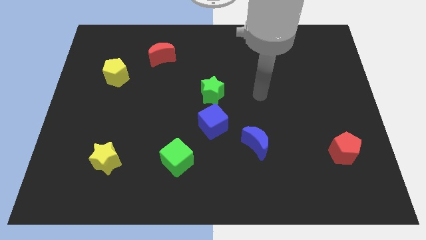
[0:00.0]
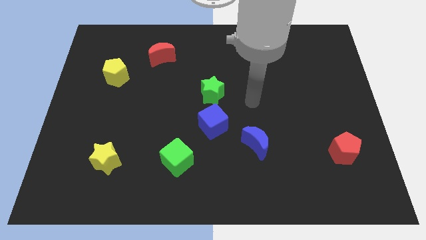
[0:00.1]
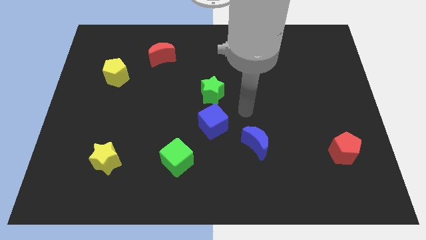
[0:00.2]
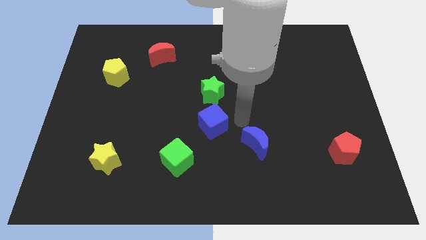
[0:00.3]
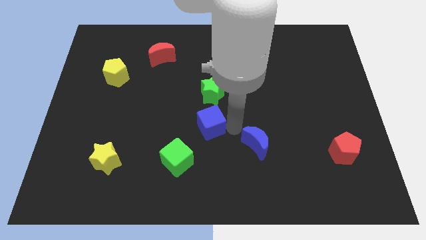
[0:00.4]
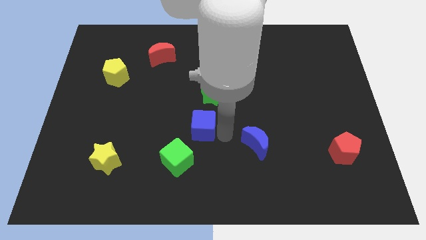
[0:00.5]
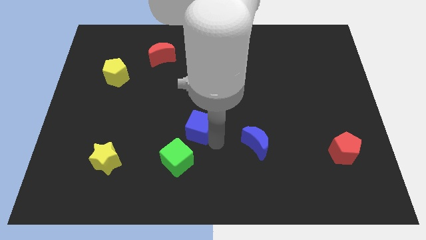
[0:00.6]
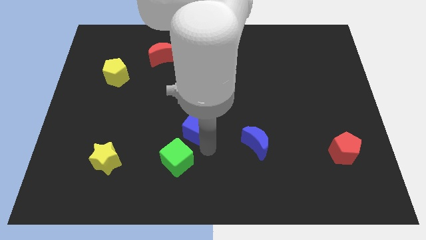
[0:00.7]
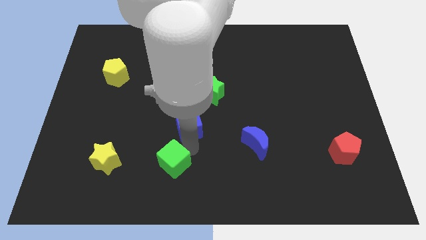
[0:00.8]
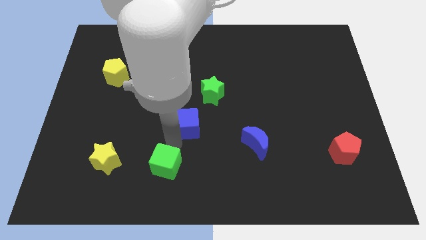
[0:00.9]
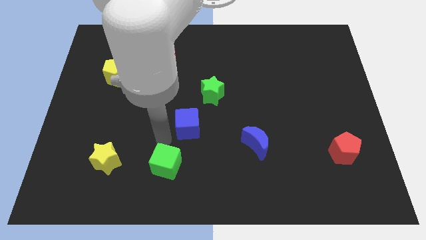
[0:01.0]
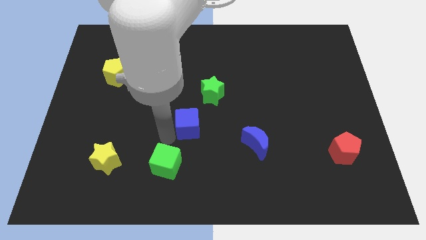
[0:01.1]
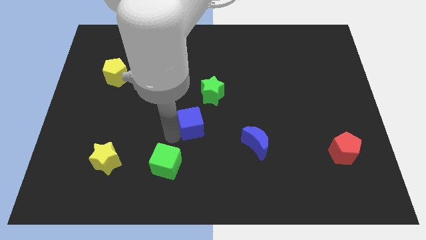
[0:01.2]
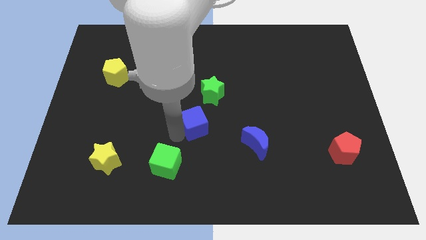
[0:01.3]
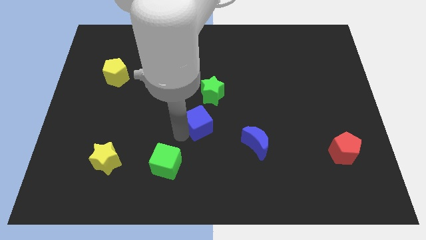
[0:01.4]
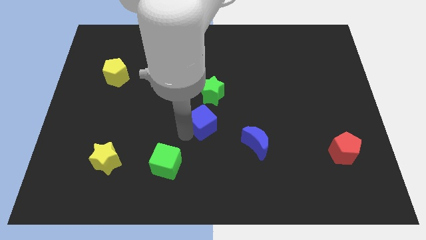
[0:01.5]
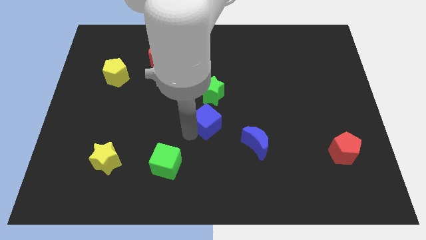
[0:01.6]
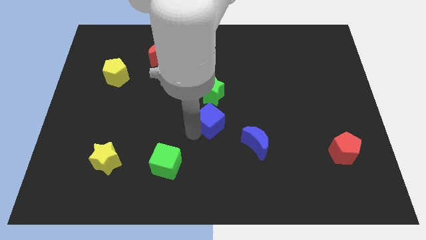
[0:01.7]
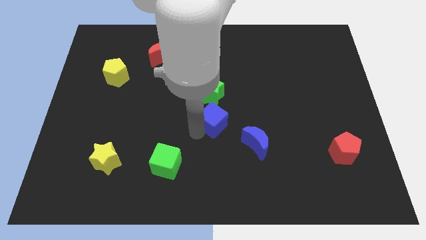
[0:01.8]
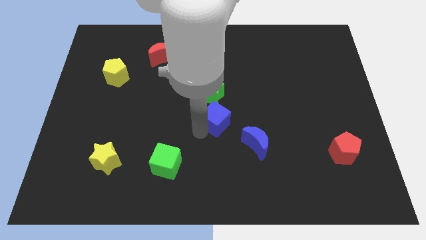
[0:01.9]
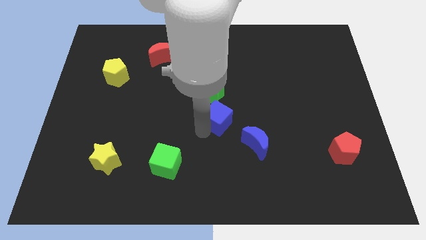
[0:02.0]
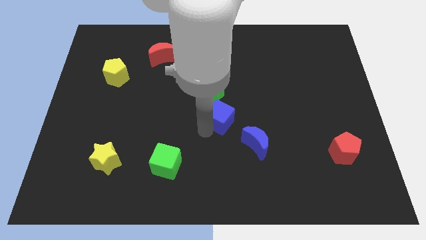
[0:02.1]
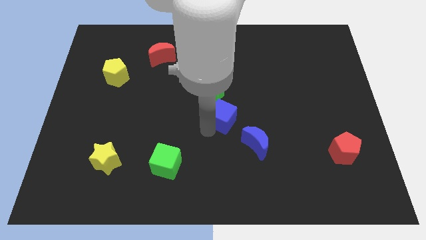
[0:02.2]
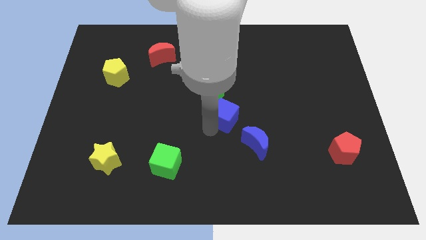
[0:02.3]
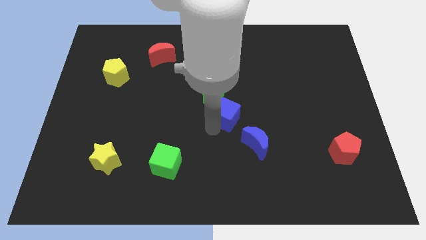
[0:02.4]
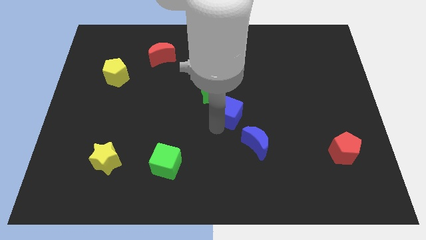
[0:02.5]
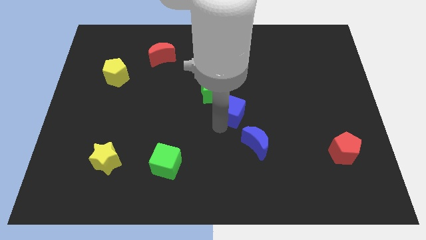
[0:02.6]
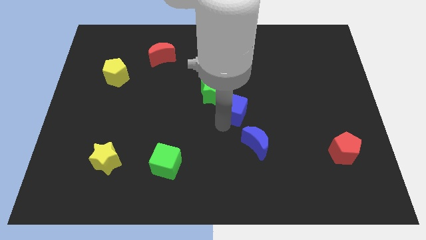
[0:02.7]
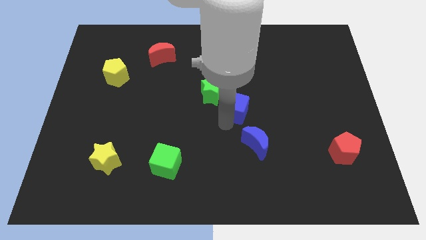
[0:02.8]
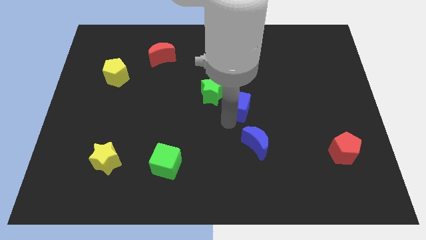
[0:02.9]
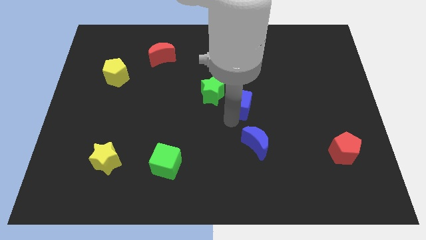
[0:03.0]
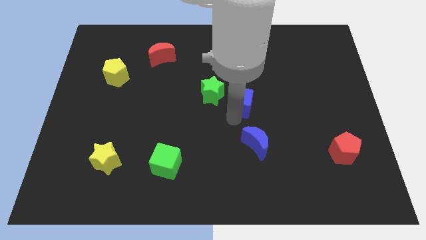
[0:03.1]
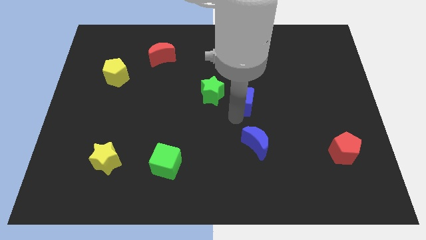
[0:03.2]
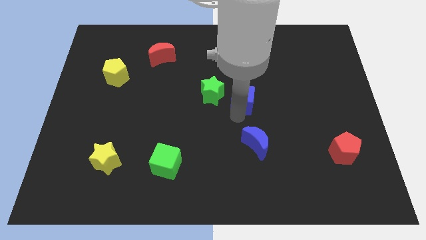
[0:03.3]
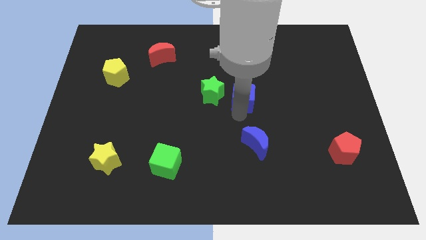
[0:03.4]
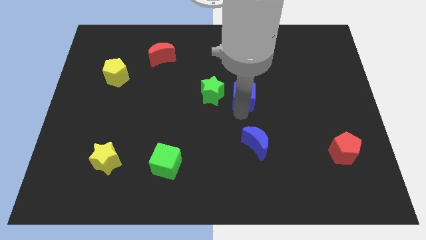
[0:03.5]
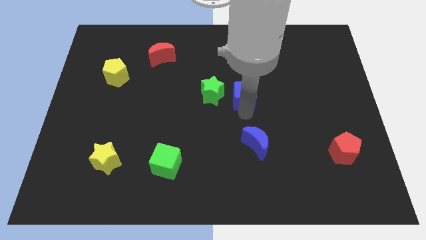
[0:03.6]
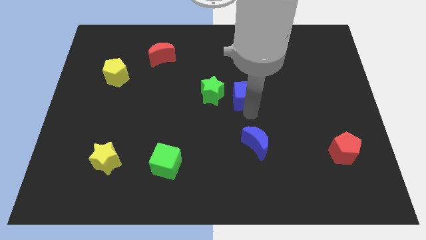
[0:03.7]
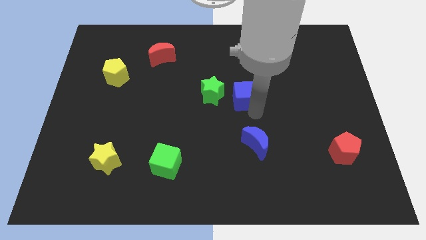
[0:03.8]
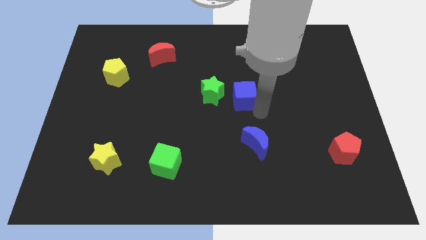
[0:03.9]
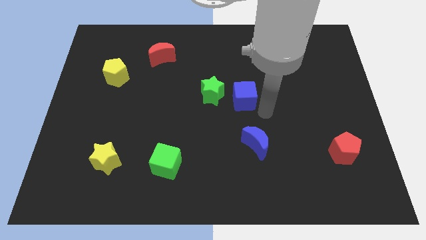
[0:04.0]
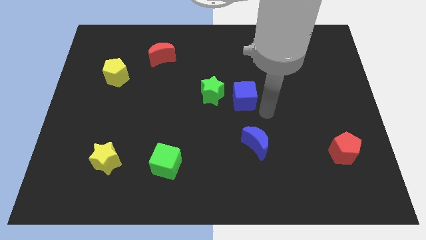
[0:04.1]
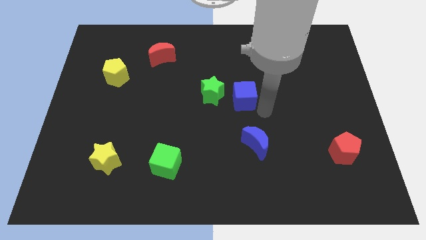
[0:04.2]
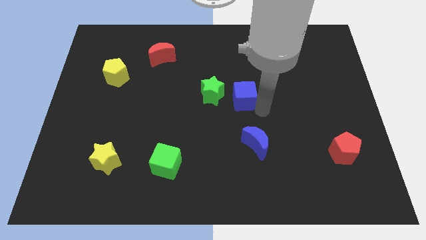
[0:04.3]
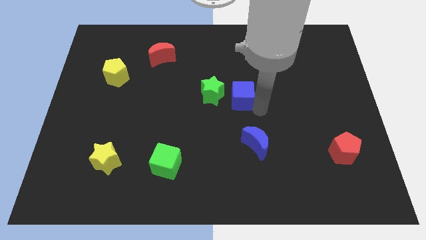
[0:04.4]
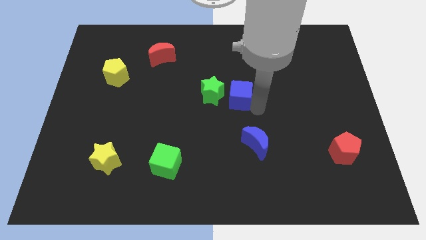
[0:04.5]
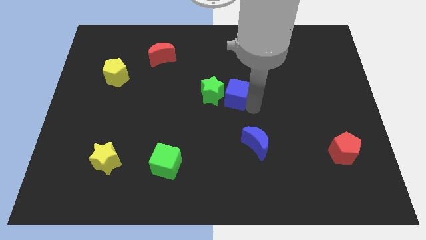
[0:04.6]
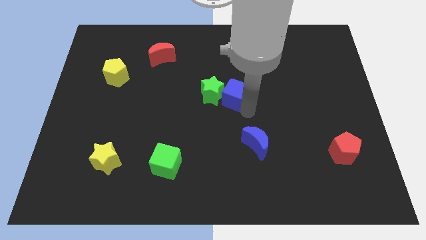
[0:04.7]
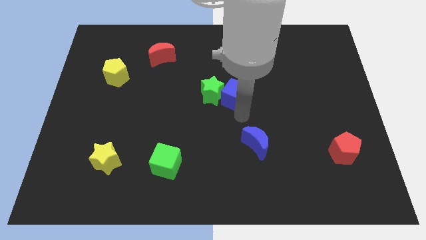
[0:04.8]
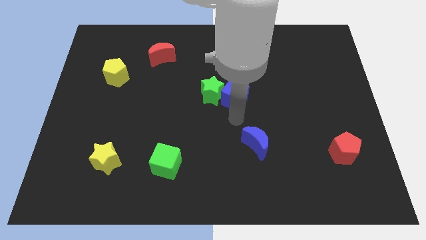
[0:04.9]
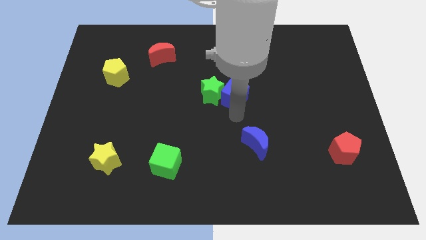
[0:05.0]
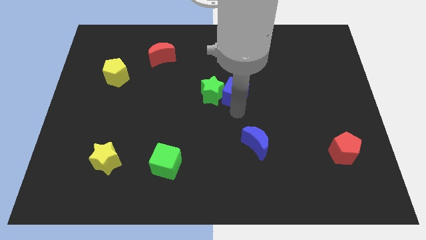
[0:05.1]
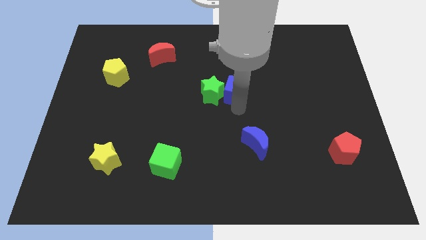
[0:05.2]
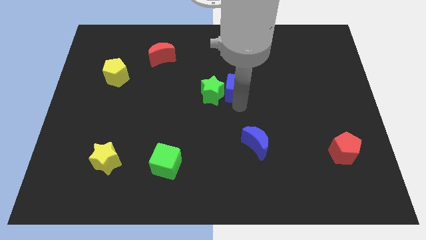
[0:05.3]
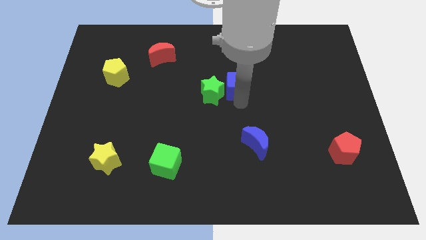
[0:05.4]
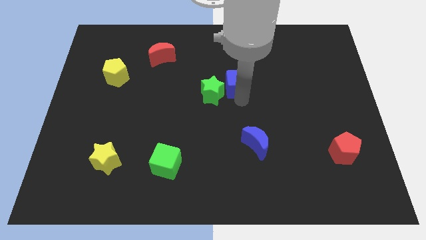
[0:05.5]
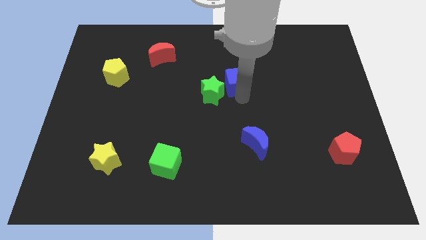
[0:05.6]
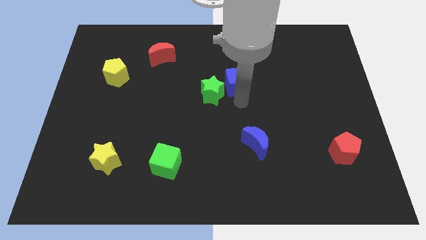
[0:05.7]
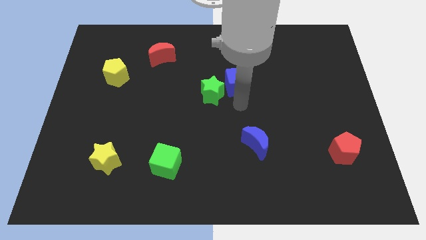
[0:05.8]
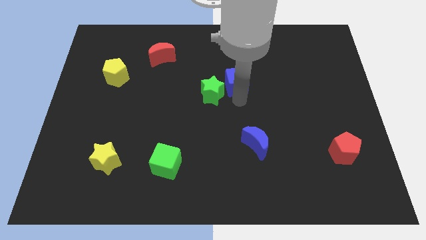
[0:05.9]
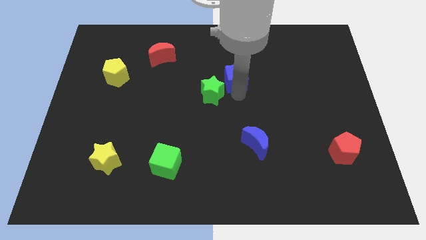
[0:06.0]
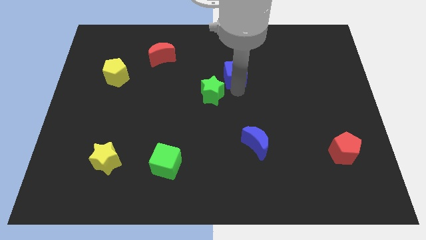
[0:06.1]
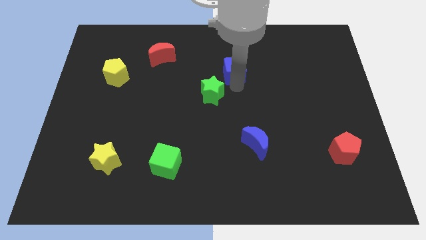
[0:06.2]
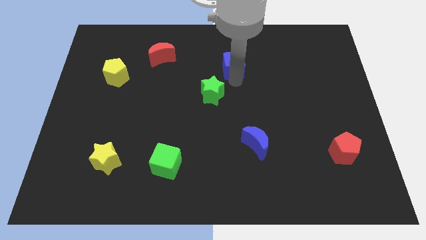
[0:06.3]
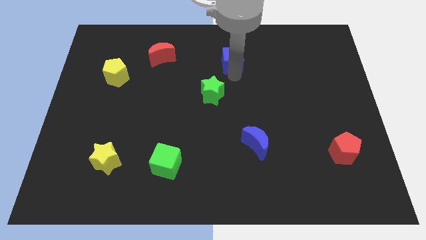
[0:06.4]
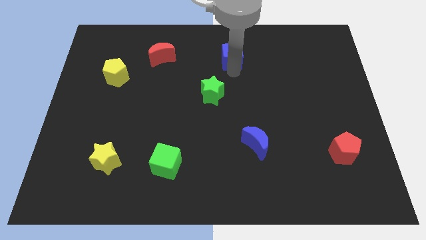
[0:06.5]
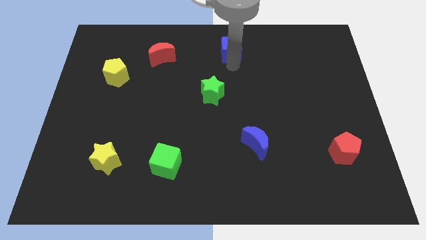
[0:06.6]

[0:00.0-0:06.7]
move the blue cube to the top side

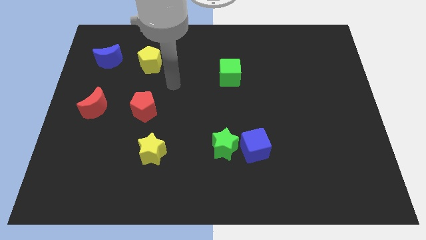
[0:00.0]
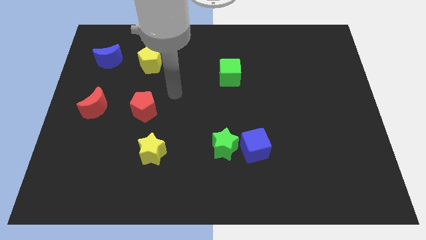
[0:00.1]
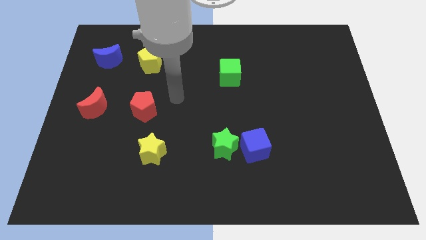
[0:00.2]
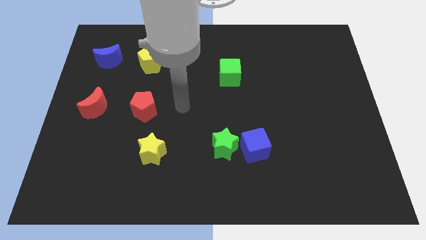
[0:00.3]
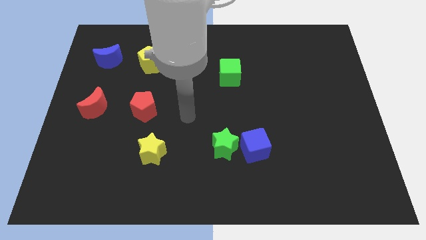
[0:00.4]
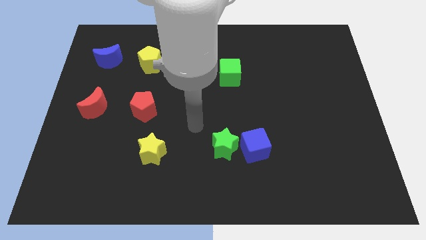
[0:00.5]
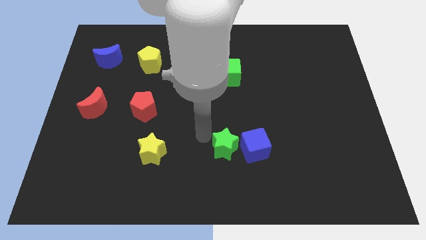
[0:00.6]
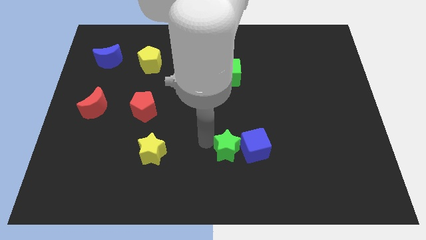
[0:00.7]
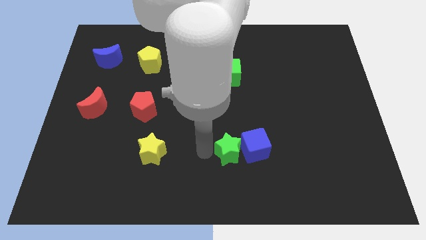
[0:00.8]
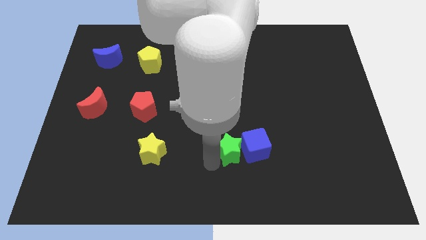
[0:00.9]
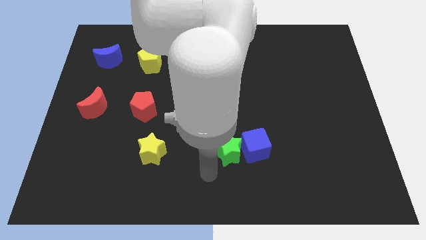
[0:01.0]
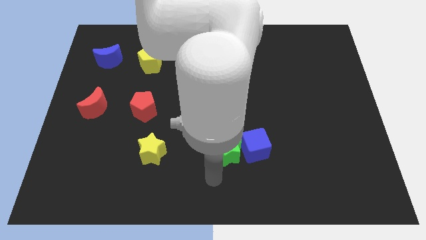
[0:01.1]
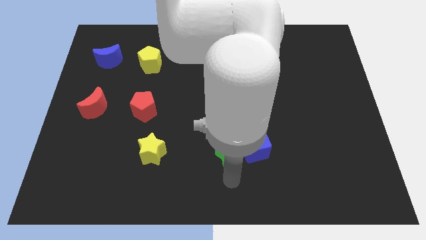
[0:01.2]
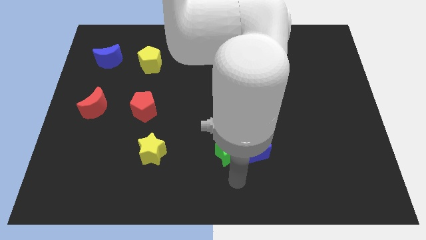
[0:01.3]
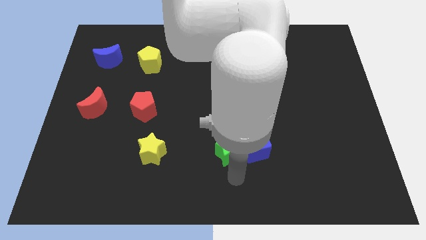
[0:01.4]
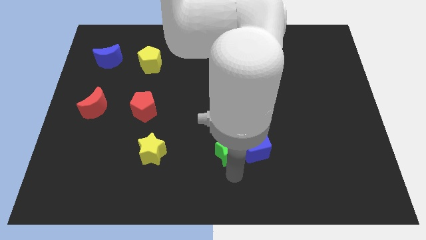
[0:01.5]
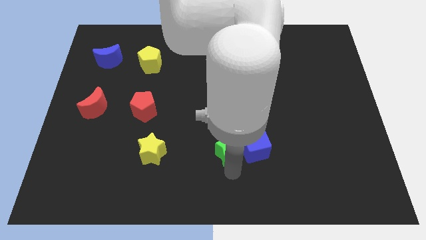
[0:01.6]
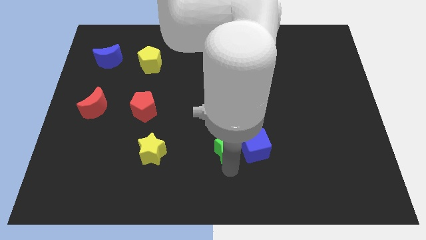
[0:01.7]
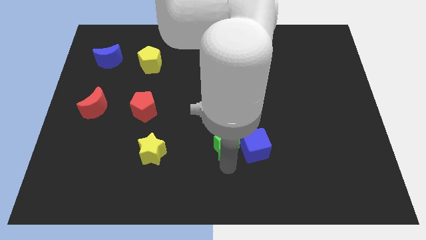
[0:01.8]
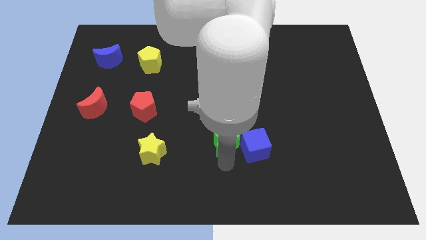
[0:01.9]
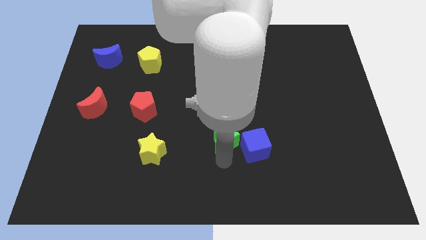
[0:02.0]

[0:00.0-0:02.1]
put the green star to the center of the board
